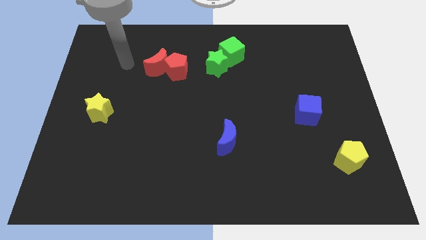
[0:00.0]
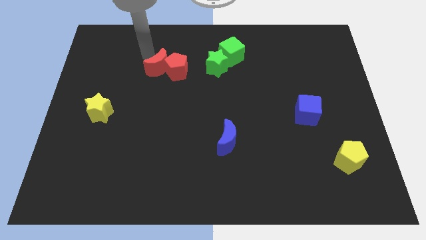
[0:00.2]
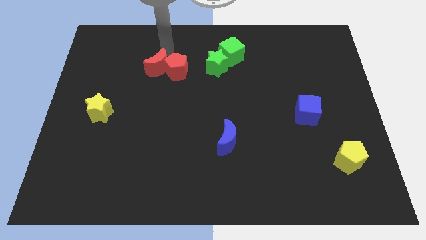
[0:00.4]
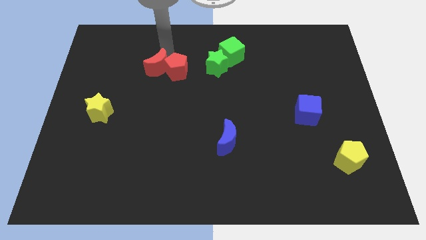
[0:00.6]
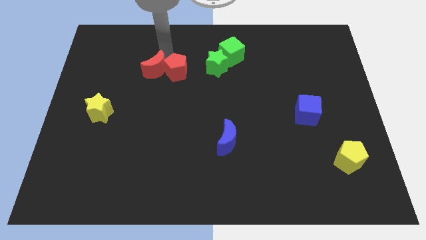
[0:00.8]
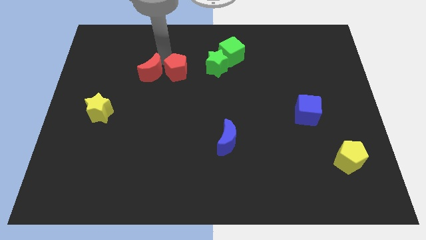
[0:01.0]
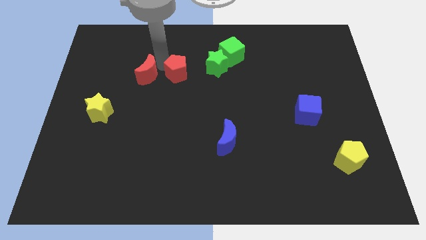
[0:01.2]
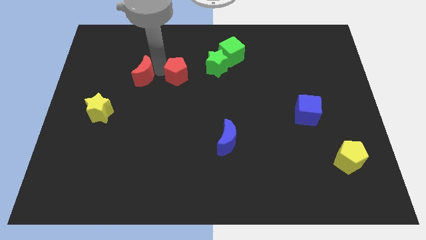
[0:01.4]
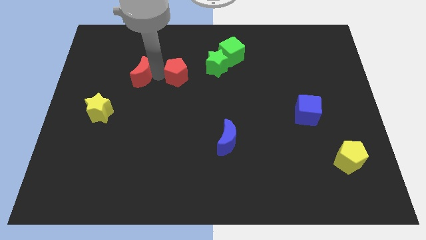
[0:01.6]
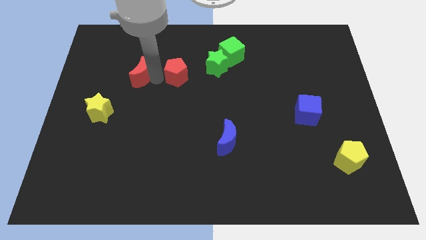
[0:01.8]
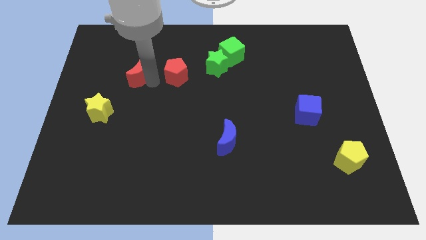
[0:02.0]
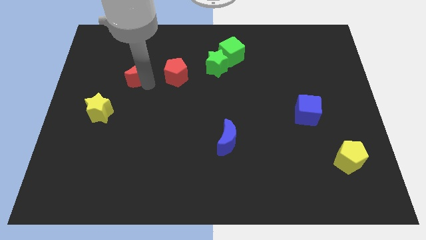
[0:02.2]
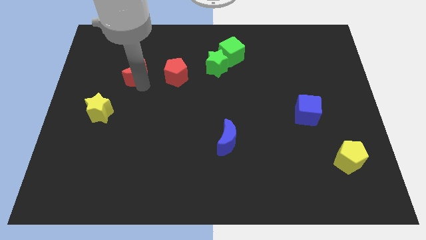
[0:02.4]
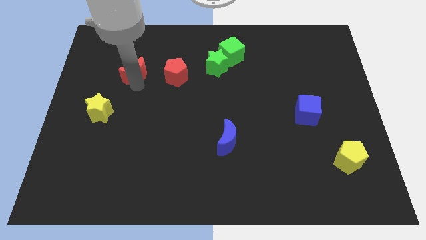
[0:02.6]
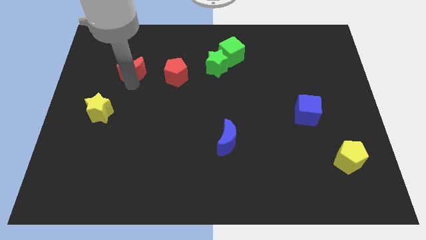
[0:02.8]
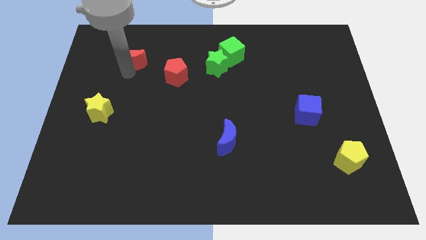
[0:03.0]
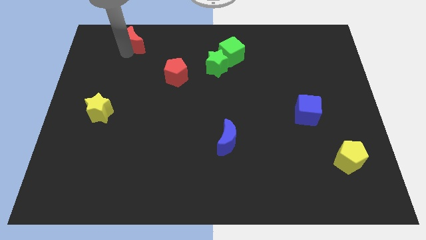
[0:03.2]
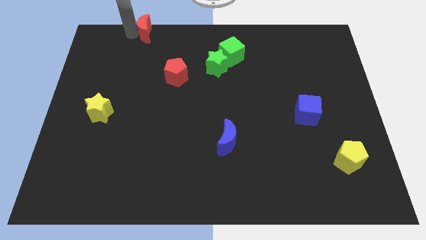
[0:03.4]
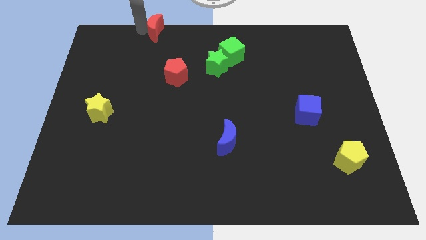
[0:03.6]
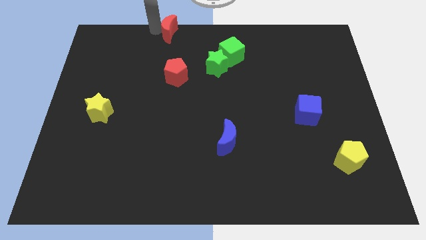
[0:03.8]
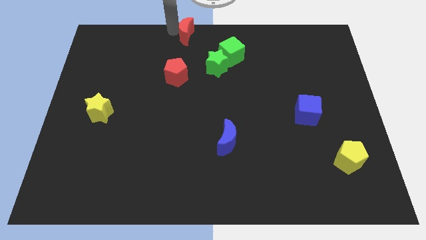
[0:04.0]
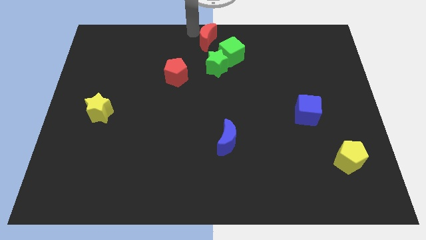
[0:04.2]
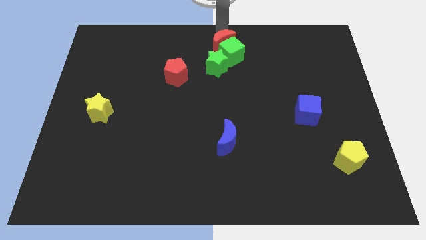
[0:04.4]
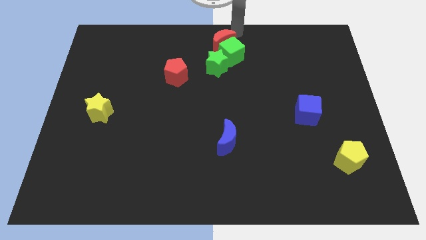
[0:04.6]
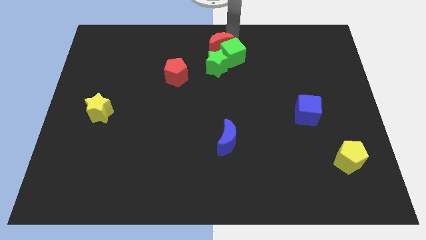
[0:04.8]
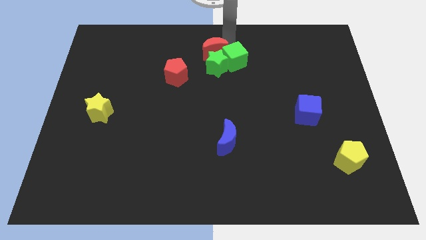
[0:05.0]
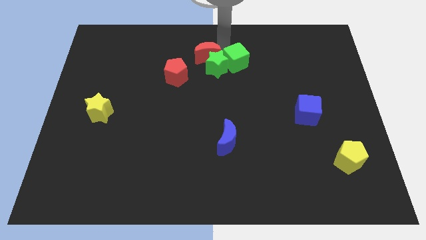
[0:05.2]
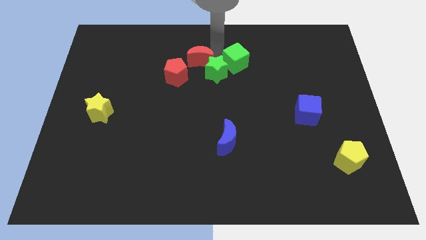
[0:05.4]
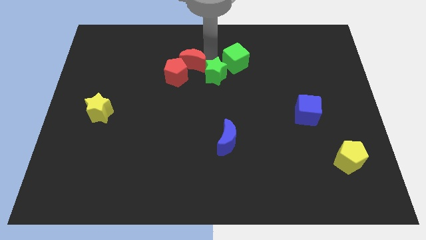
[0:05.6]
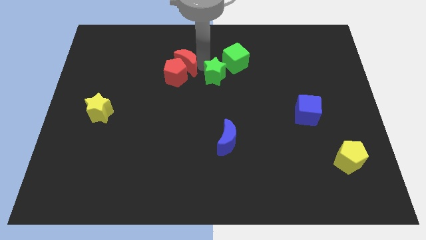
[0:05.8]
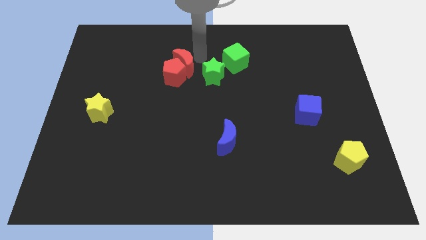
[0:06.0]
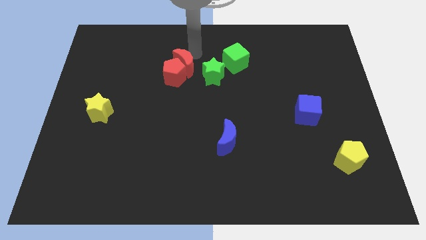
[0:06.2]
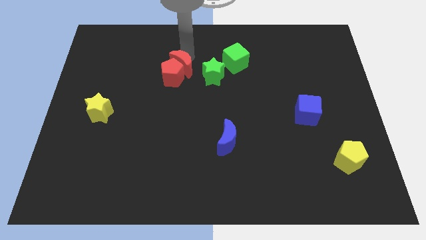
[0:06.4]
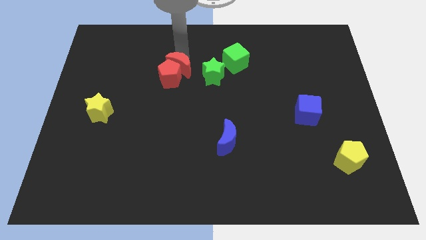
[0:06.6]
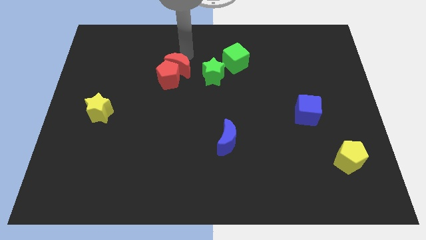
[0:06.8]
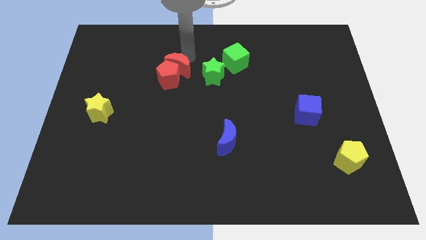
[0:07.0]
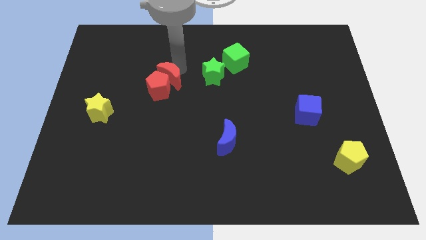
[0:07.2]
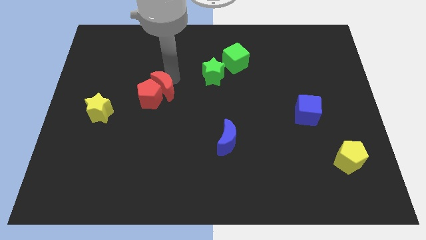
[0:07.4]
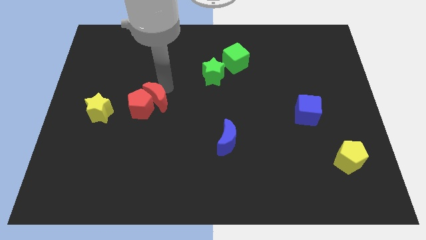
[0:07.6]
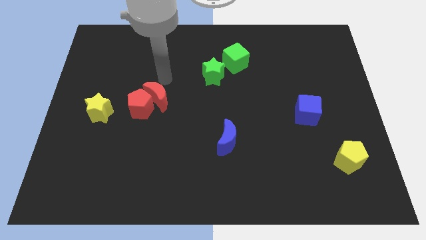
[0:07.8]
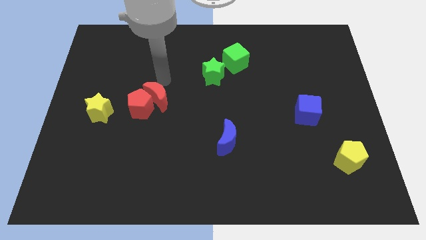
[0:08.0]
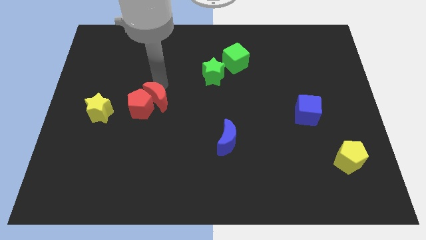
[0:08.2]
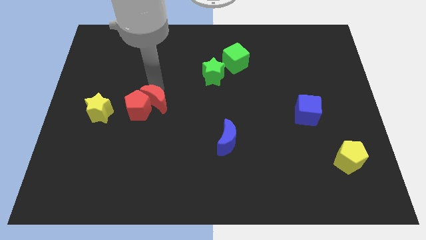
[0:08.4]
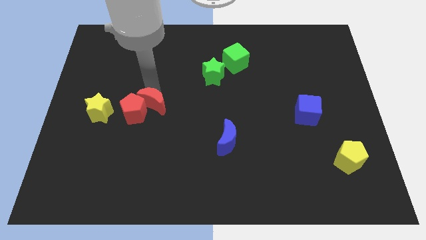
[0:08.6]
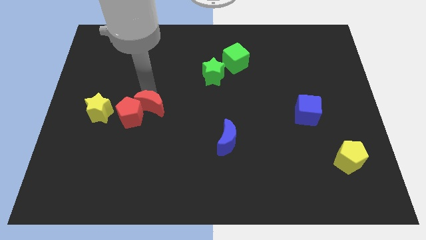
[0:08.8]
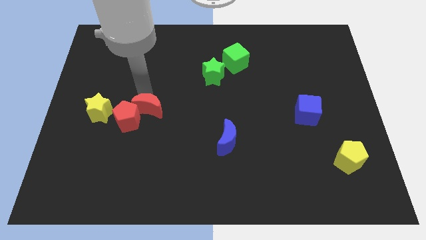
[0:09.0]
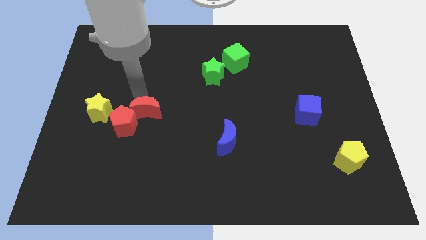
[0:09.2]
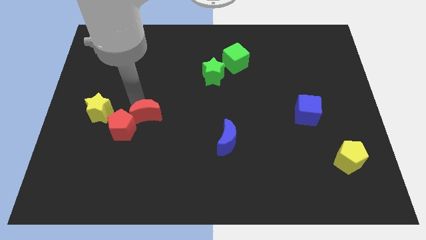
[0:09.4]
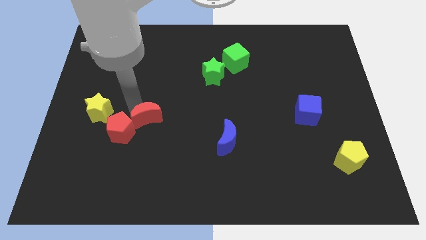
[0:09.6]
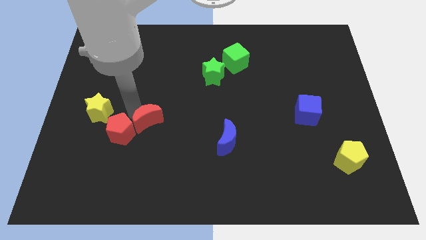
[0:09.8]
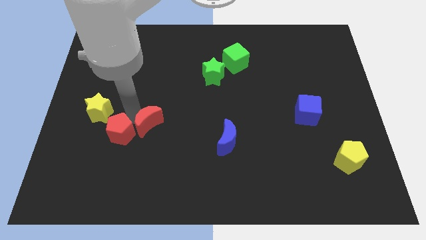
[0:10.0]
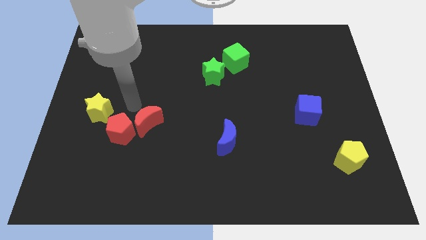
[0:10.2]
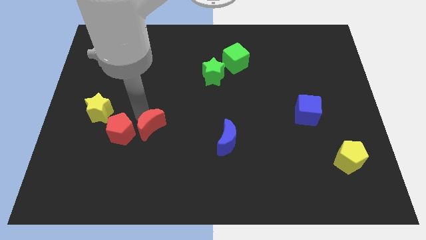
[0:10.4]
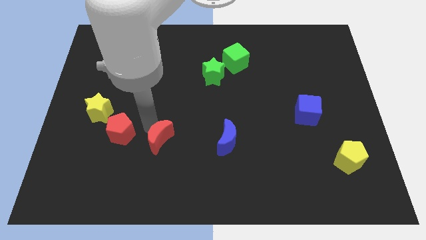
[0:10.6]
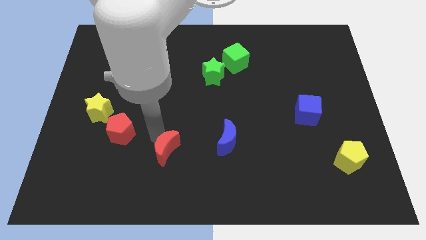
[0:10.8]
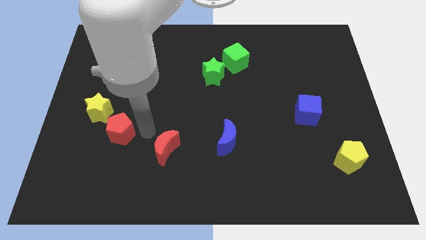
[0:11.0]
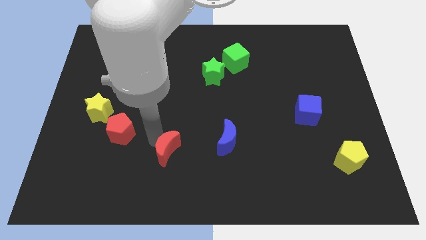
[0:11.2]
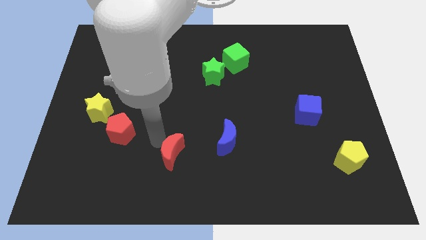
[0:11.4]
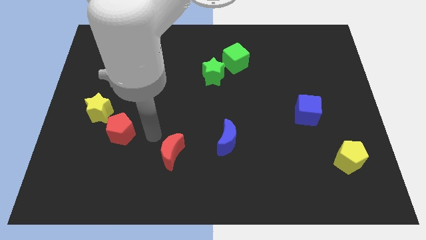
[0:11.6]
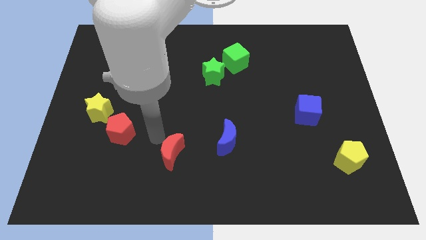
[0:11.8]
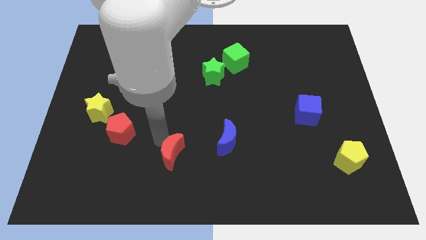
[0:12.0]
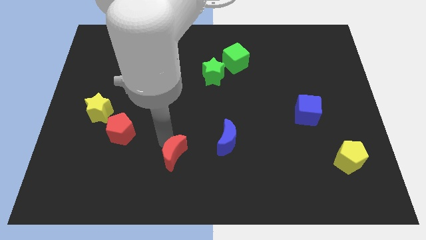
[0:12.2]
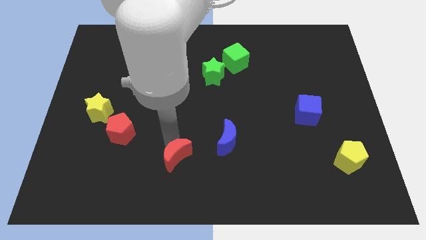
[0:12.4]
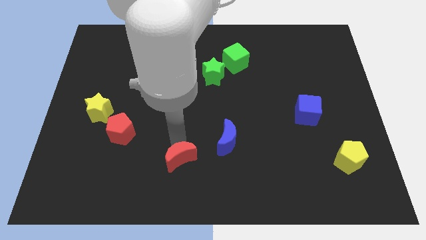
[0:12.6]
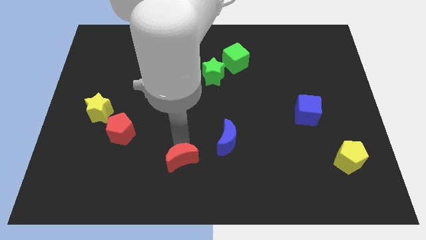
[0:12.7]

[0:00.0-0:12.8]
slide the red moon to the bottom side

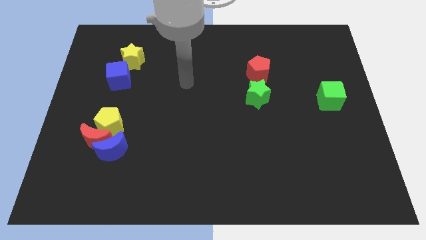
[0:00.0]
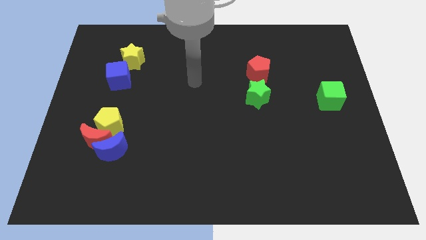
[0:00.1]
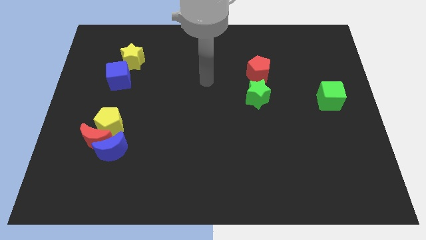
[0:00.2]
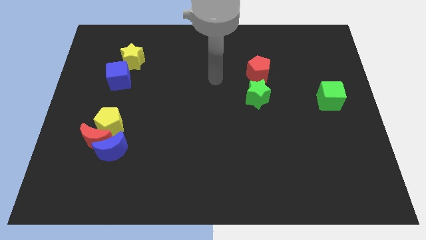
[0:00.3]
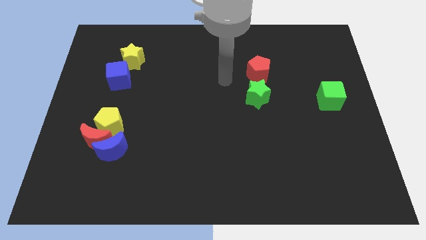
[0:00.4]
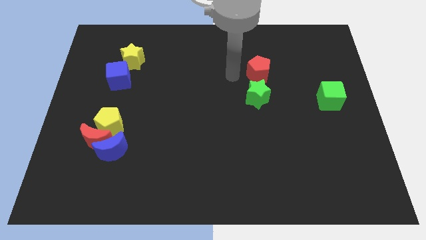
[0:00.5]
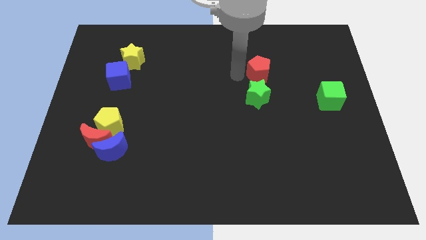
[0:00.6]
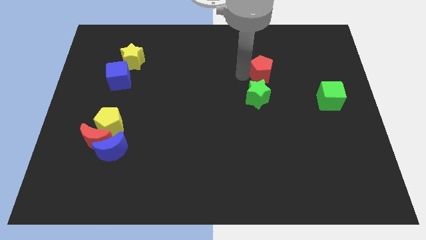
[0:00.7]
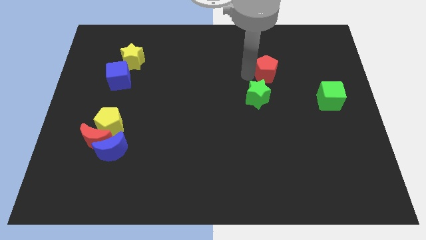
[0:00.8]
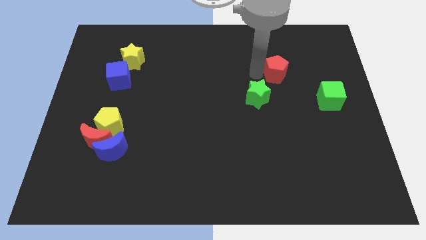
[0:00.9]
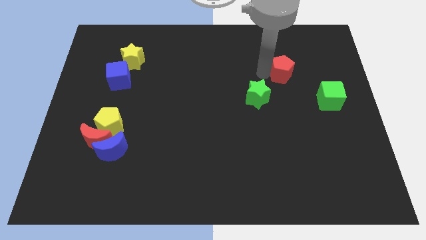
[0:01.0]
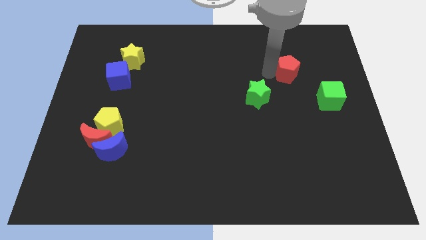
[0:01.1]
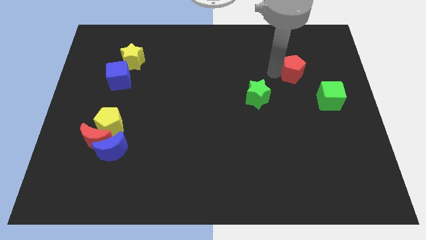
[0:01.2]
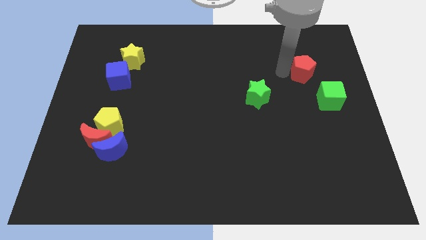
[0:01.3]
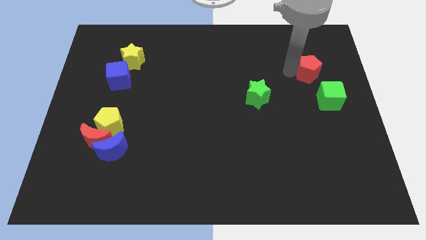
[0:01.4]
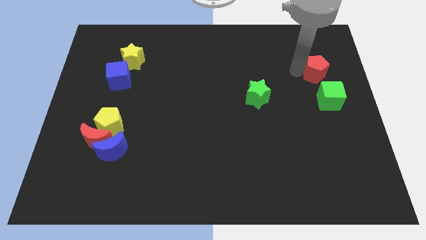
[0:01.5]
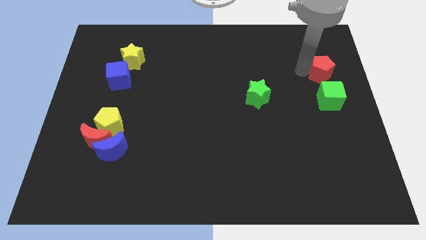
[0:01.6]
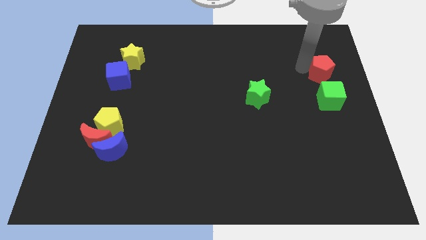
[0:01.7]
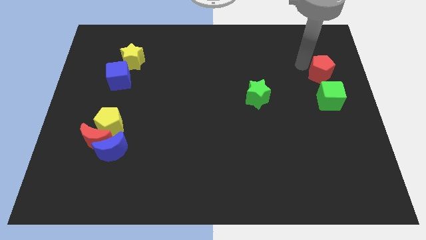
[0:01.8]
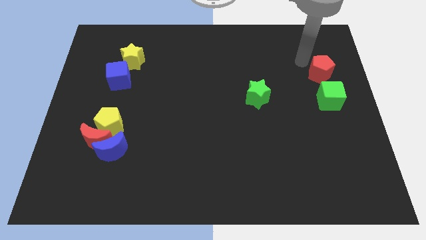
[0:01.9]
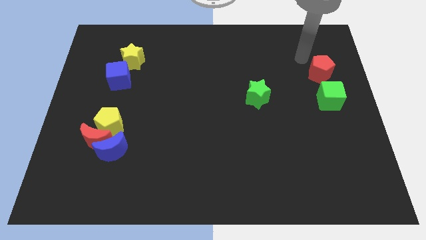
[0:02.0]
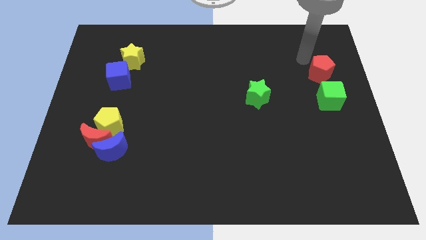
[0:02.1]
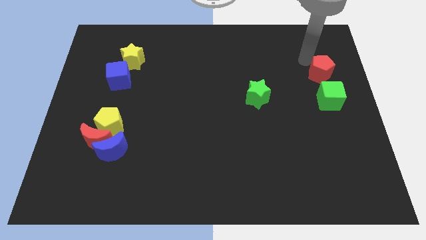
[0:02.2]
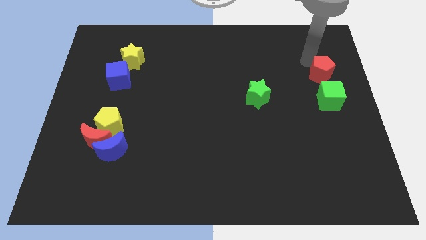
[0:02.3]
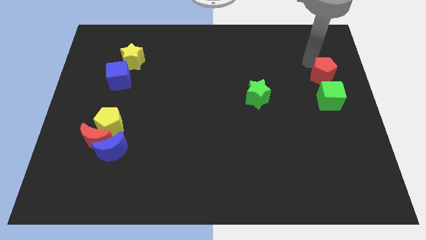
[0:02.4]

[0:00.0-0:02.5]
put the red pentagon to the right side
